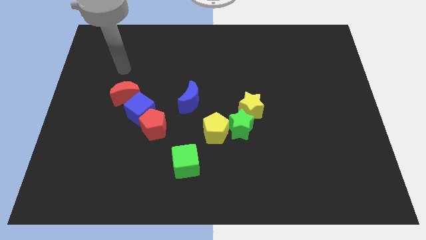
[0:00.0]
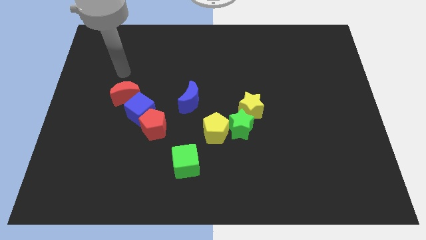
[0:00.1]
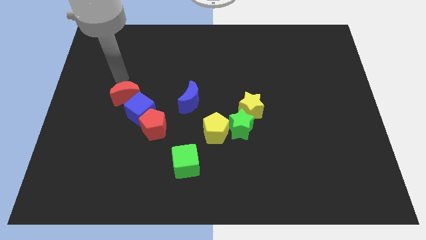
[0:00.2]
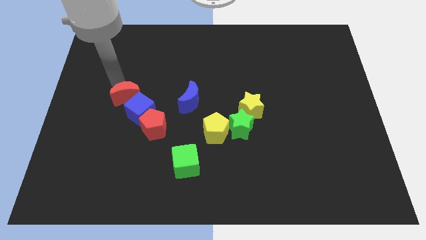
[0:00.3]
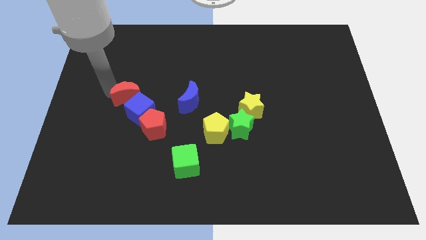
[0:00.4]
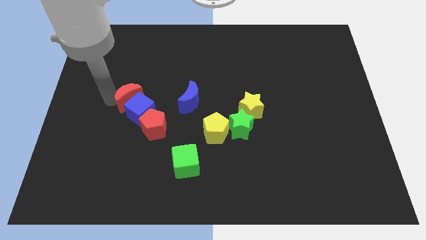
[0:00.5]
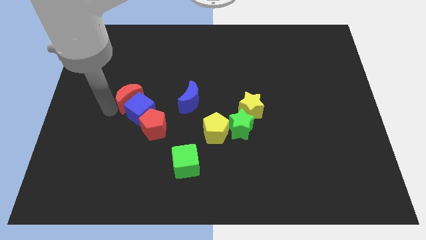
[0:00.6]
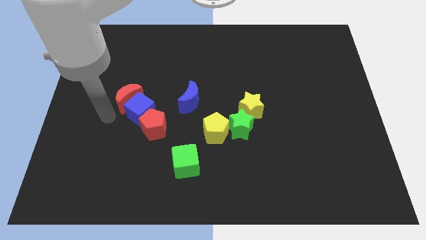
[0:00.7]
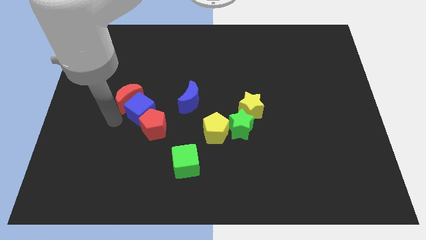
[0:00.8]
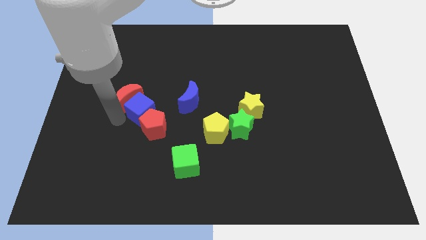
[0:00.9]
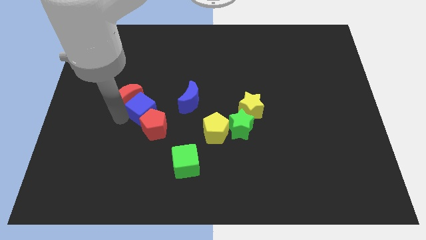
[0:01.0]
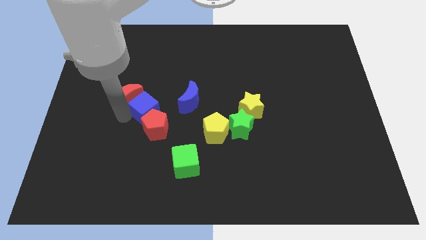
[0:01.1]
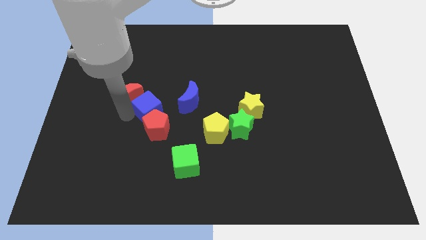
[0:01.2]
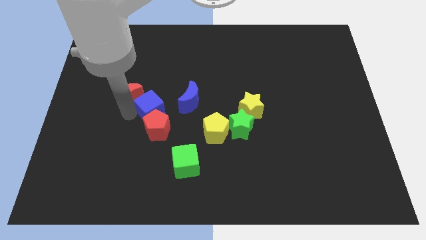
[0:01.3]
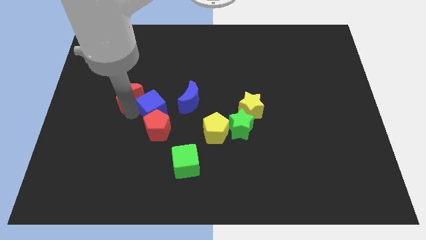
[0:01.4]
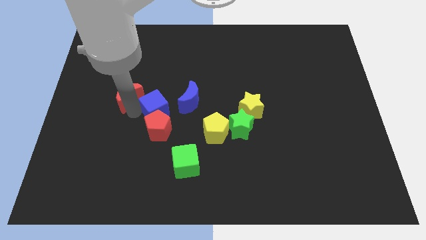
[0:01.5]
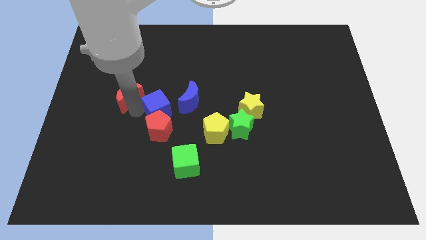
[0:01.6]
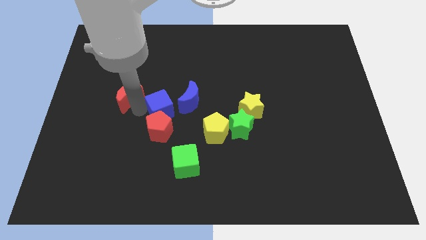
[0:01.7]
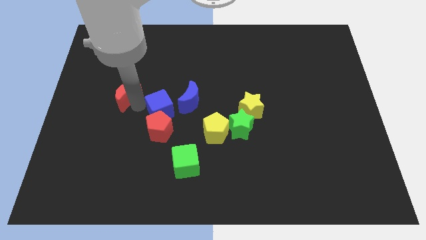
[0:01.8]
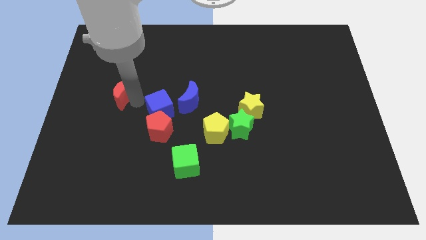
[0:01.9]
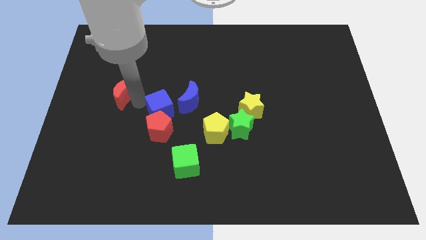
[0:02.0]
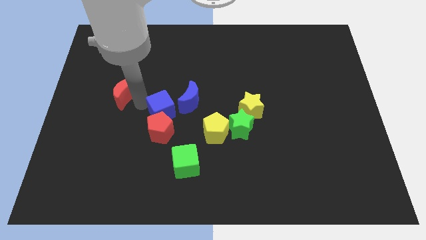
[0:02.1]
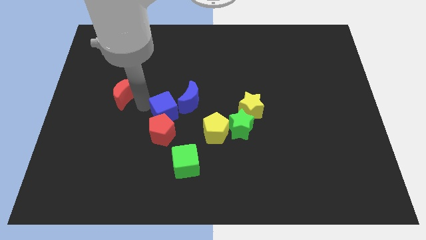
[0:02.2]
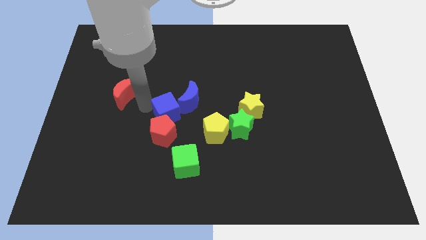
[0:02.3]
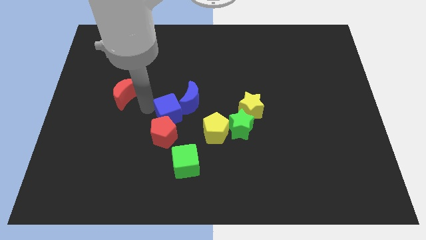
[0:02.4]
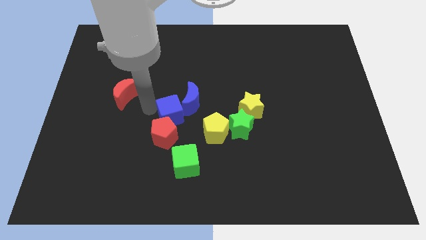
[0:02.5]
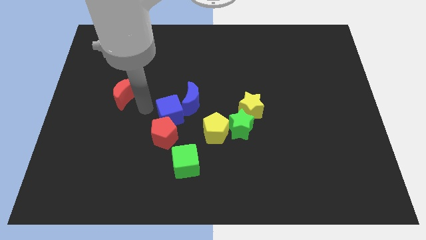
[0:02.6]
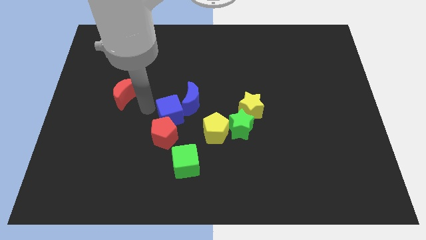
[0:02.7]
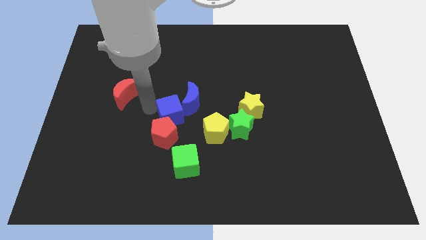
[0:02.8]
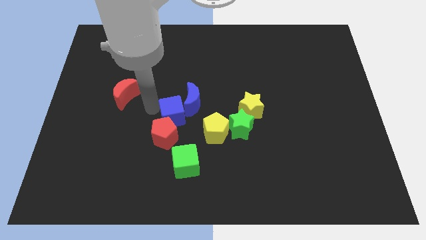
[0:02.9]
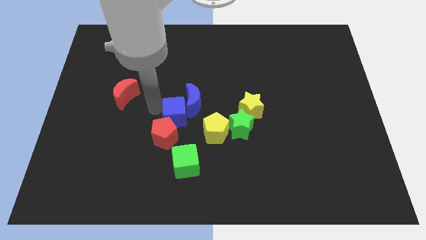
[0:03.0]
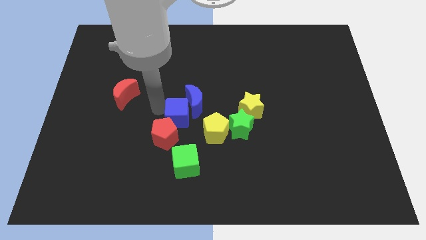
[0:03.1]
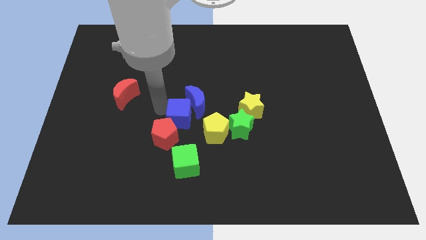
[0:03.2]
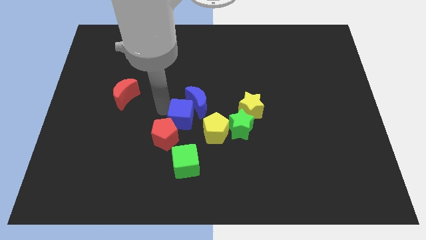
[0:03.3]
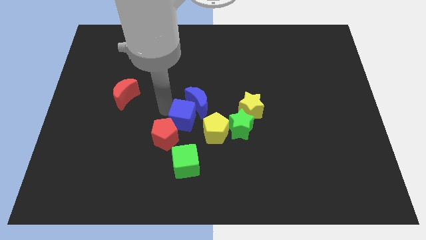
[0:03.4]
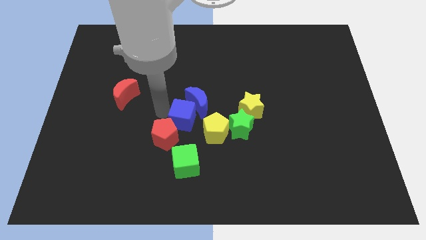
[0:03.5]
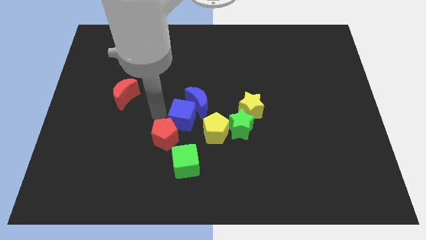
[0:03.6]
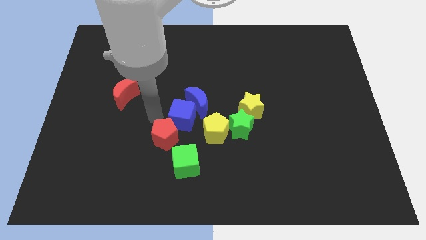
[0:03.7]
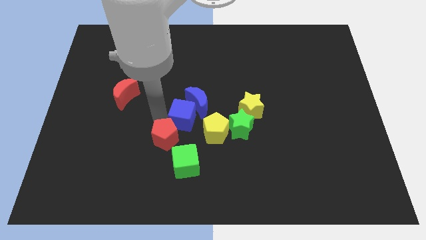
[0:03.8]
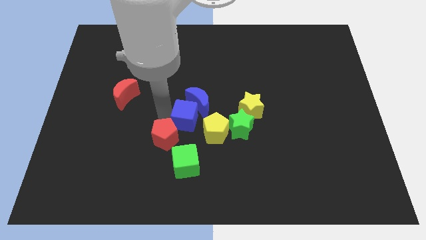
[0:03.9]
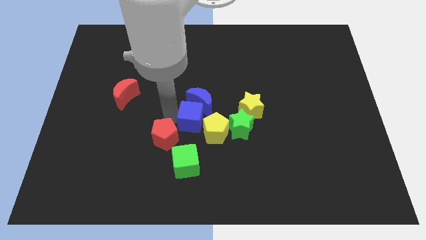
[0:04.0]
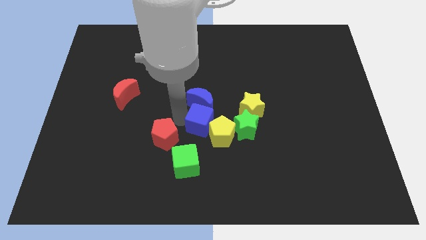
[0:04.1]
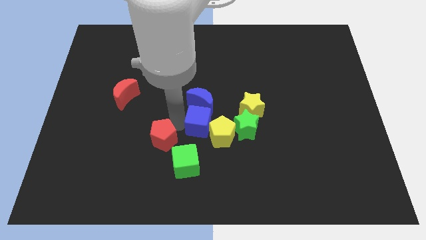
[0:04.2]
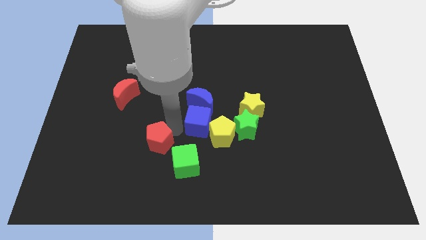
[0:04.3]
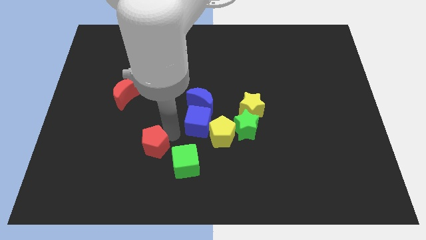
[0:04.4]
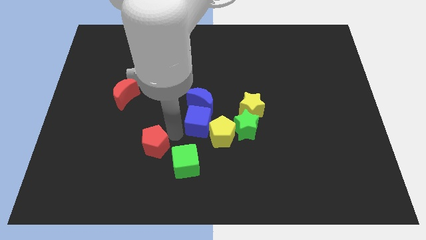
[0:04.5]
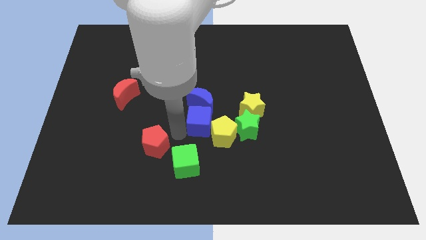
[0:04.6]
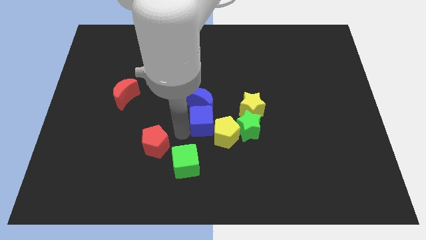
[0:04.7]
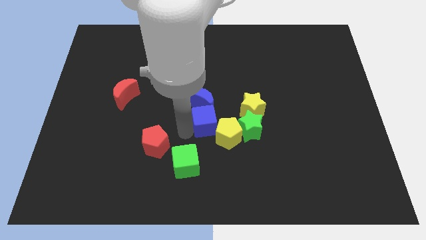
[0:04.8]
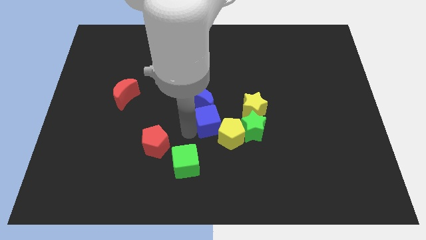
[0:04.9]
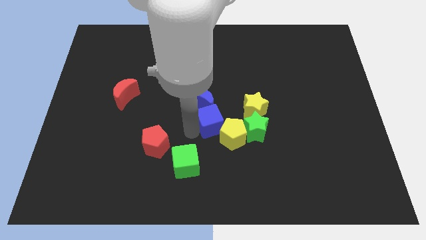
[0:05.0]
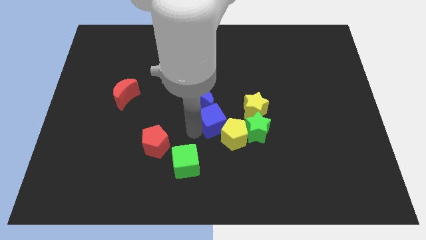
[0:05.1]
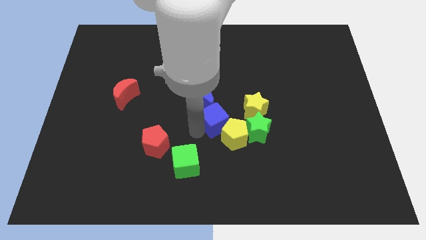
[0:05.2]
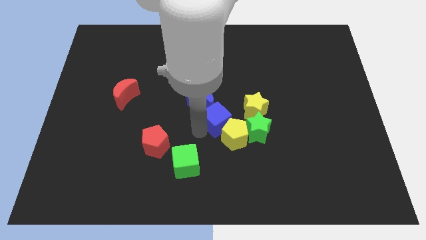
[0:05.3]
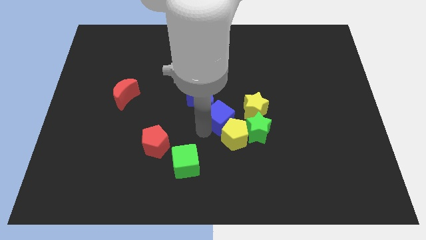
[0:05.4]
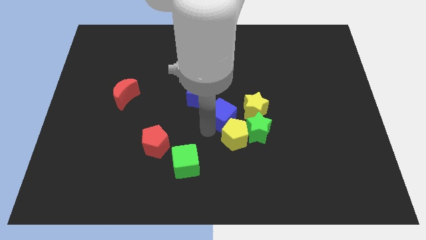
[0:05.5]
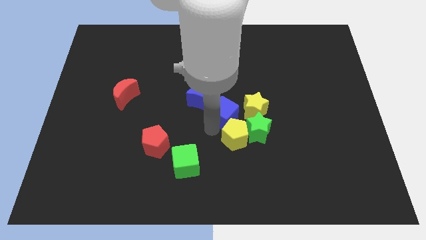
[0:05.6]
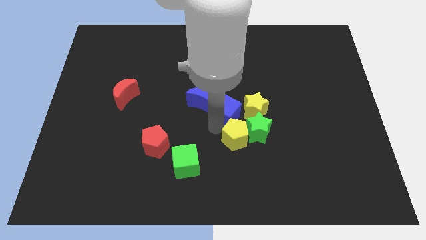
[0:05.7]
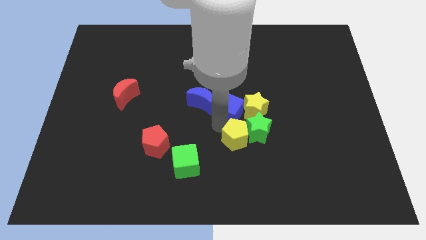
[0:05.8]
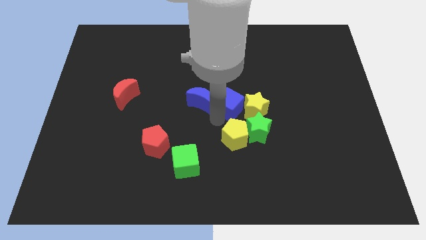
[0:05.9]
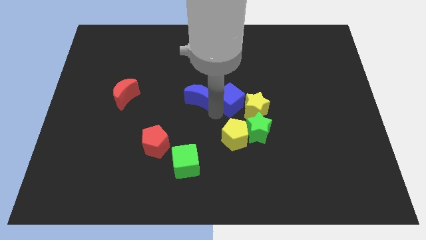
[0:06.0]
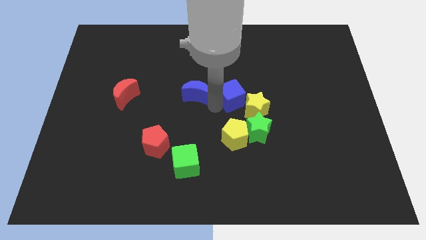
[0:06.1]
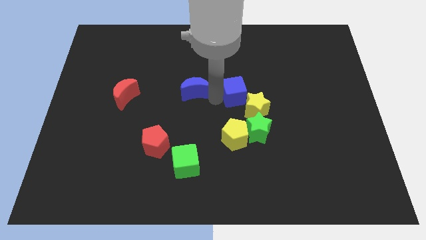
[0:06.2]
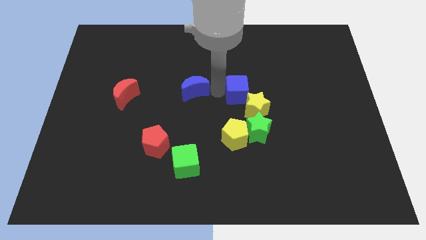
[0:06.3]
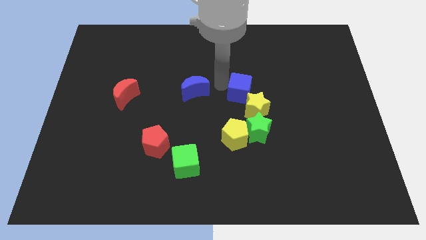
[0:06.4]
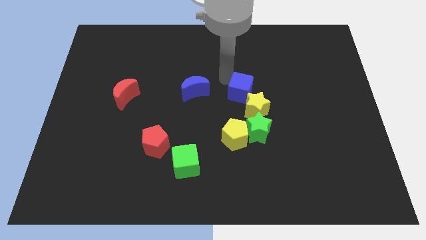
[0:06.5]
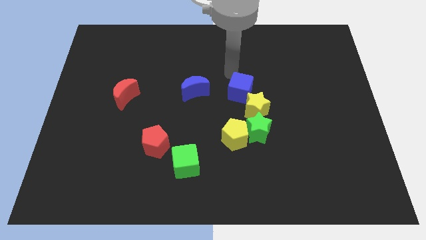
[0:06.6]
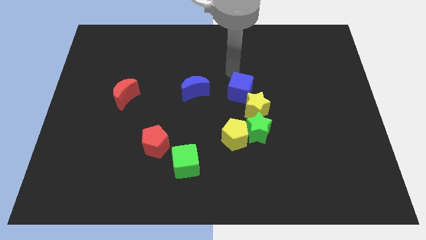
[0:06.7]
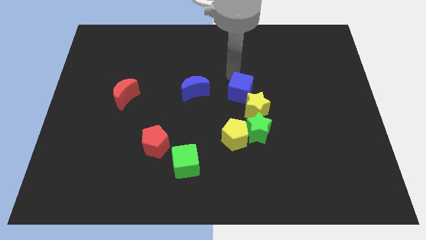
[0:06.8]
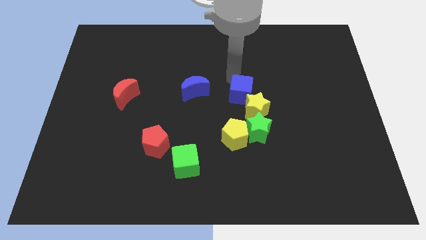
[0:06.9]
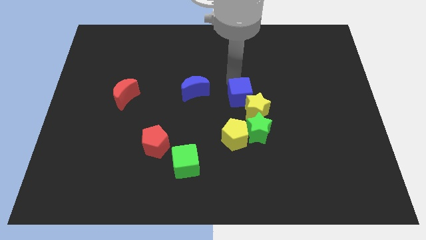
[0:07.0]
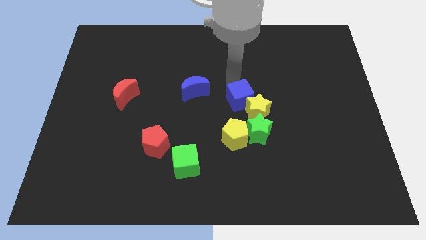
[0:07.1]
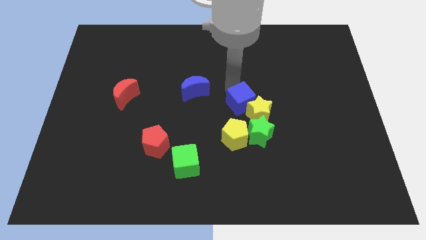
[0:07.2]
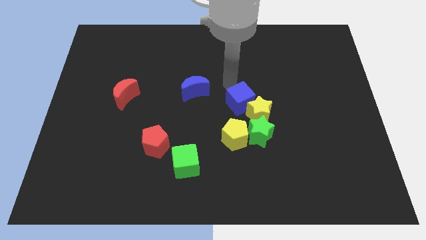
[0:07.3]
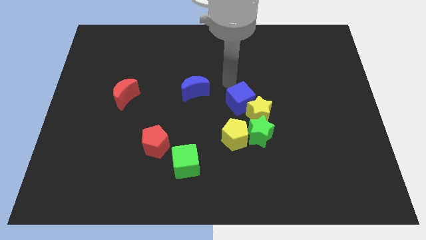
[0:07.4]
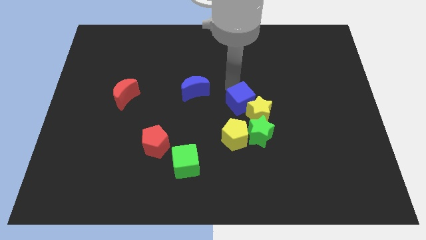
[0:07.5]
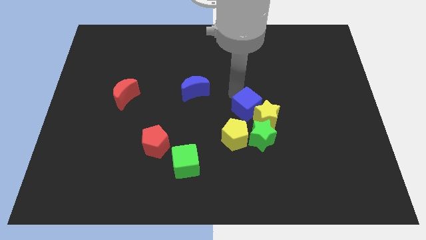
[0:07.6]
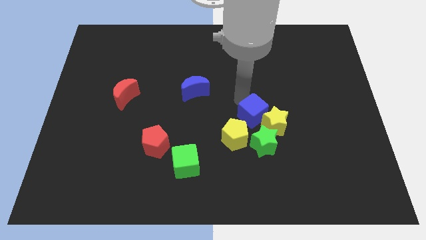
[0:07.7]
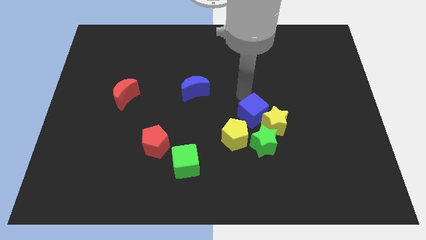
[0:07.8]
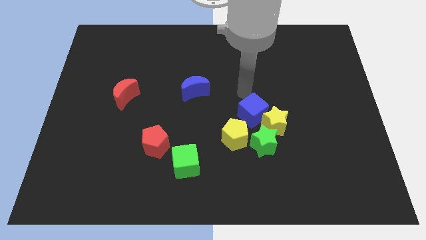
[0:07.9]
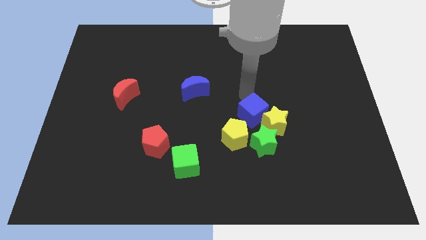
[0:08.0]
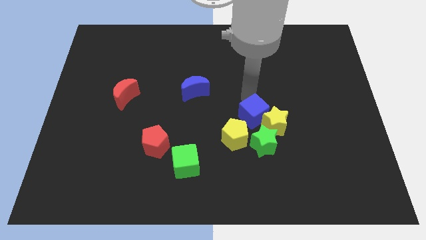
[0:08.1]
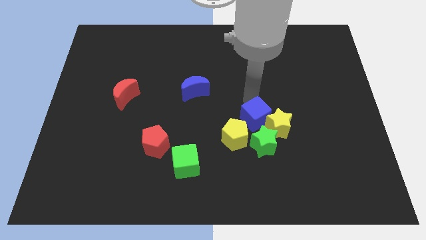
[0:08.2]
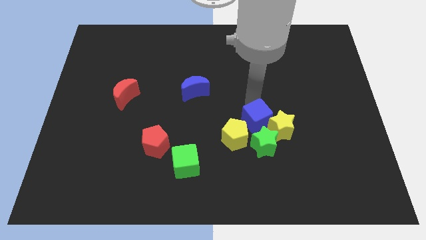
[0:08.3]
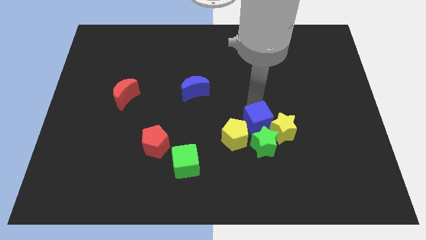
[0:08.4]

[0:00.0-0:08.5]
move the blue cube close to the green star
